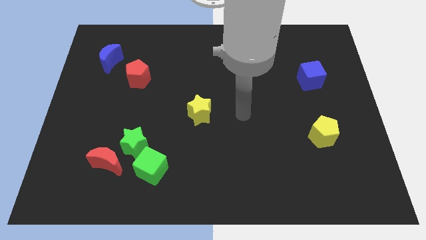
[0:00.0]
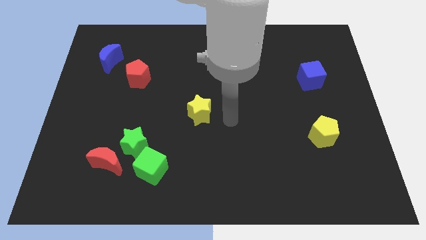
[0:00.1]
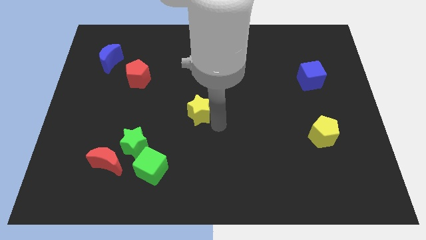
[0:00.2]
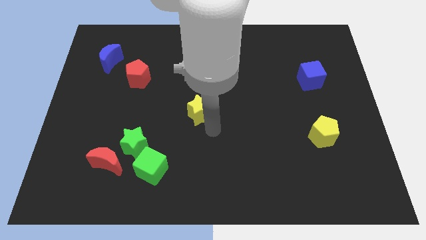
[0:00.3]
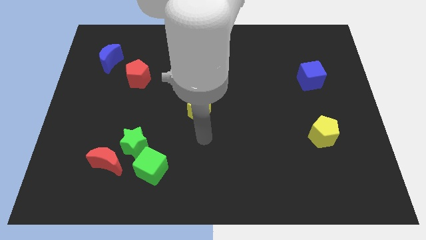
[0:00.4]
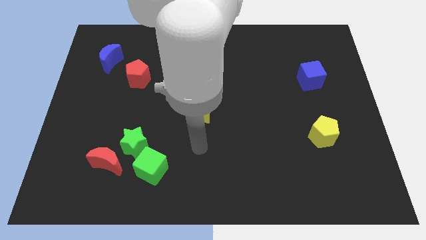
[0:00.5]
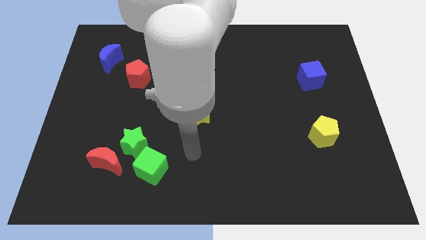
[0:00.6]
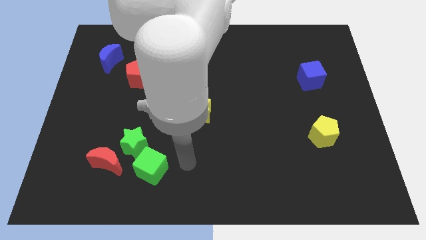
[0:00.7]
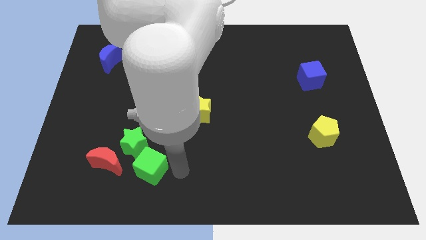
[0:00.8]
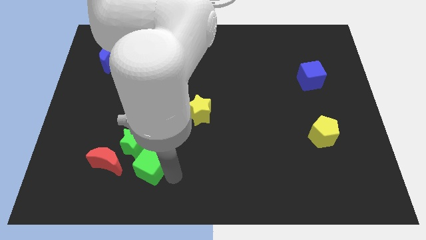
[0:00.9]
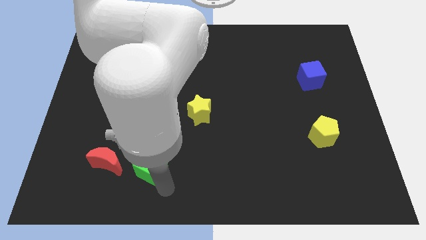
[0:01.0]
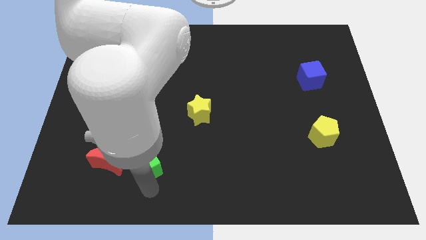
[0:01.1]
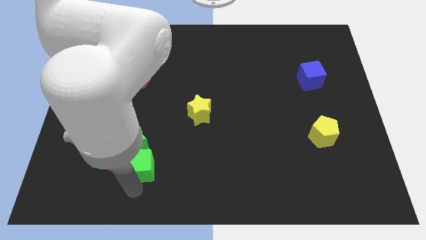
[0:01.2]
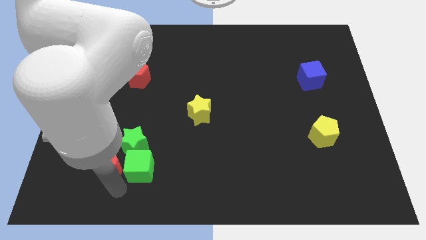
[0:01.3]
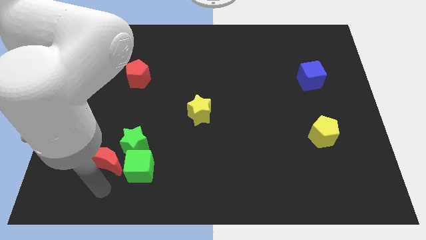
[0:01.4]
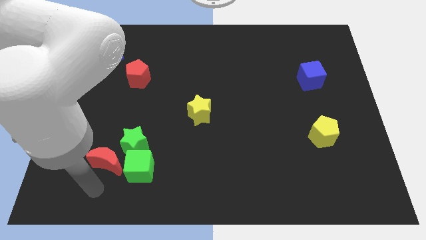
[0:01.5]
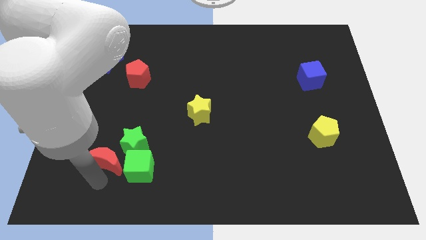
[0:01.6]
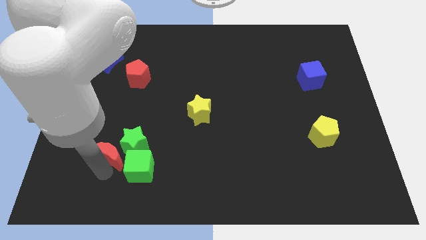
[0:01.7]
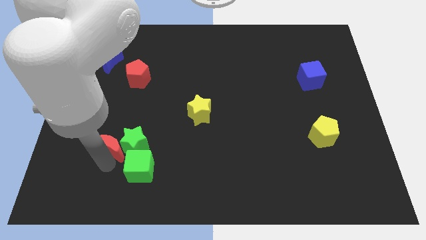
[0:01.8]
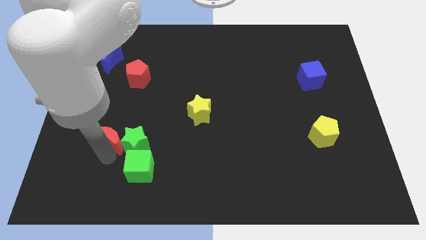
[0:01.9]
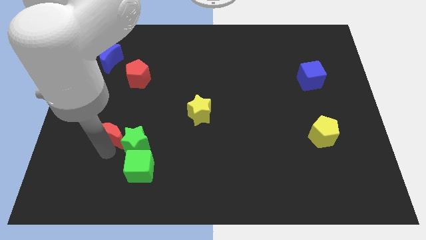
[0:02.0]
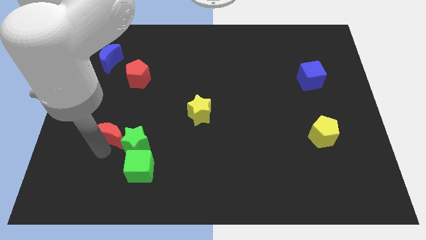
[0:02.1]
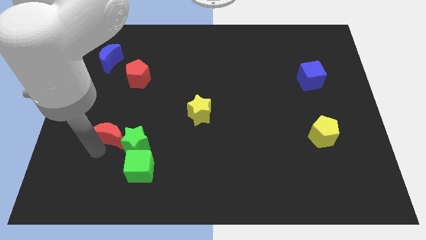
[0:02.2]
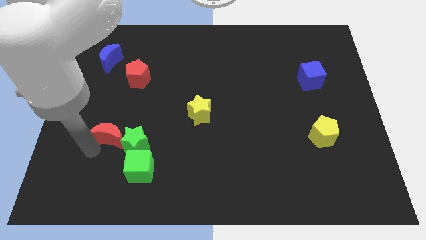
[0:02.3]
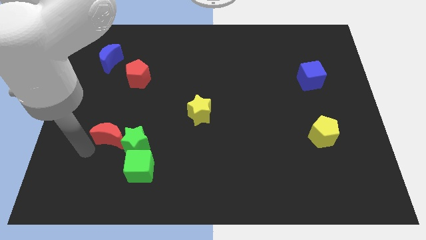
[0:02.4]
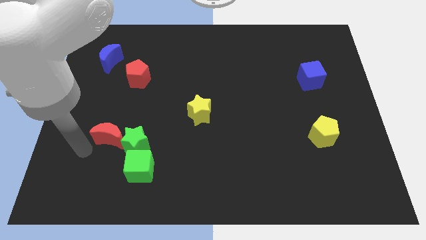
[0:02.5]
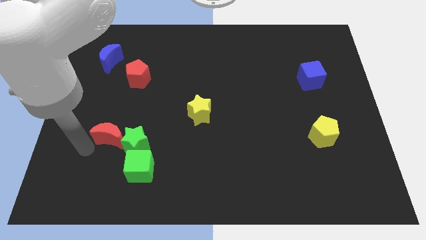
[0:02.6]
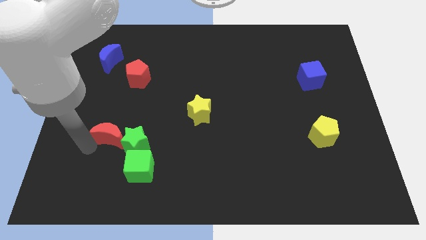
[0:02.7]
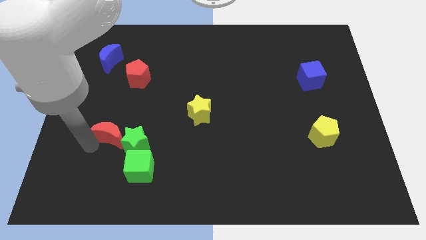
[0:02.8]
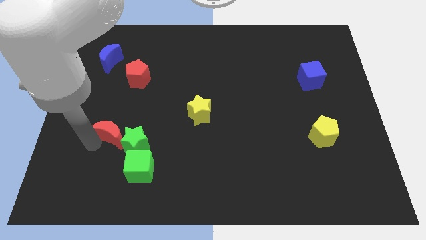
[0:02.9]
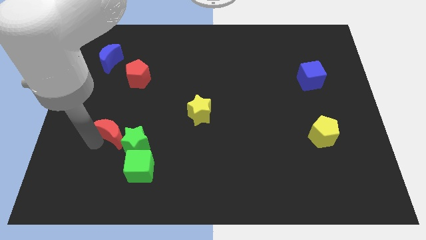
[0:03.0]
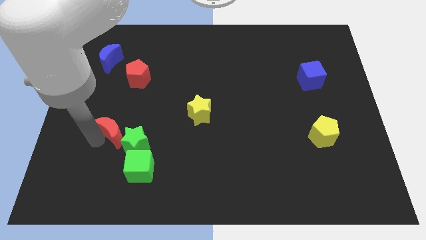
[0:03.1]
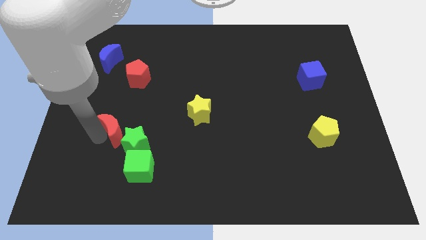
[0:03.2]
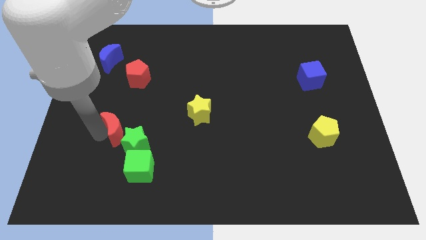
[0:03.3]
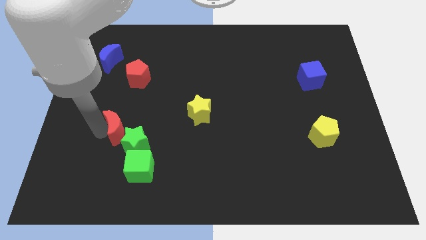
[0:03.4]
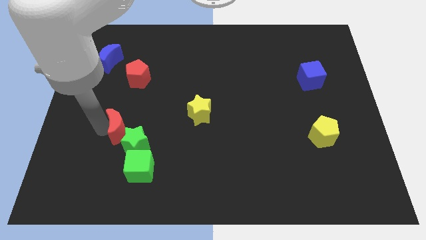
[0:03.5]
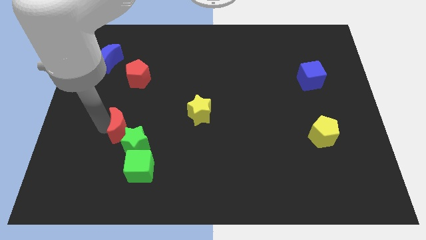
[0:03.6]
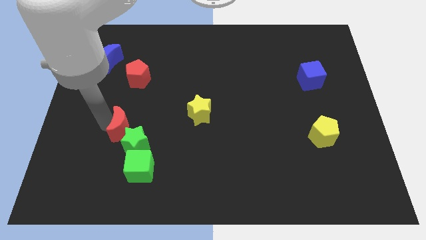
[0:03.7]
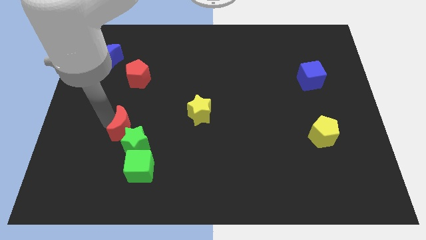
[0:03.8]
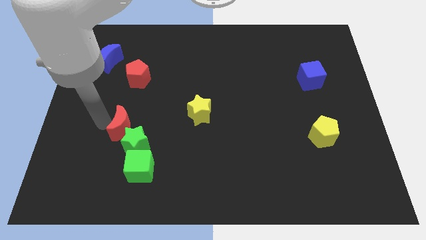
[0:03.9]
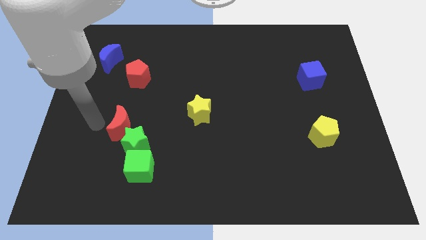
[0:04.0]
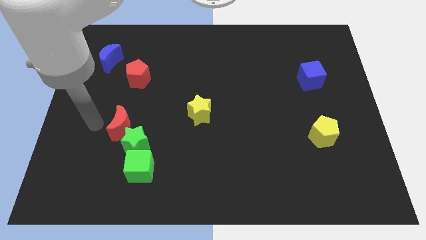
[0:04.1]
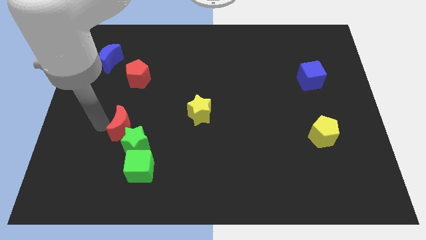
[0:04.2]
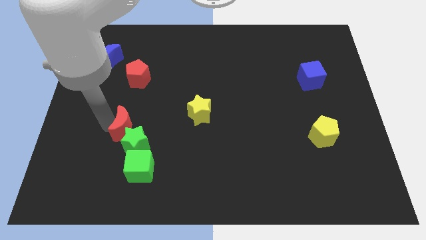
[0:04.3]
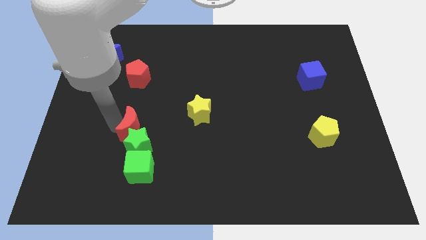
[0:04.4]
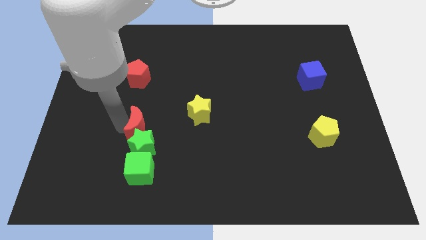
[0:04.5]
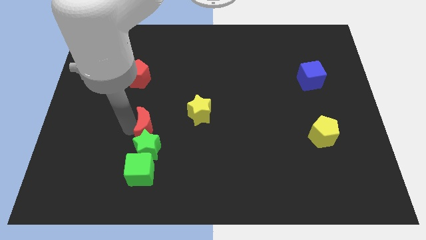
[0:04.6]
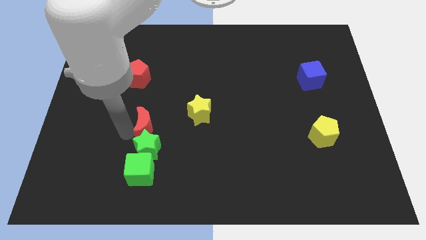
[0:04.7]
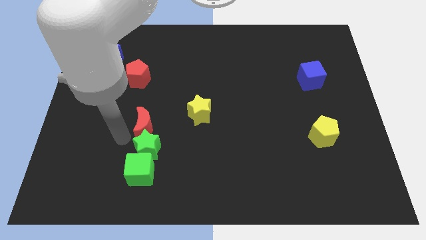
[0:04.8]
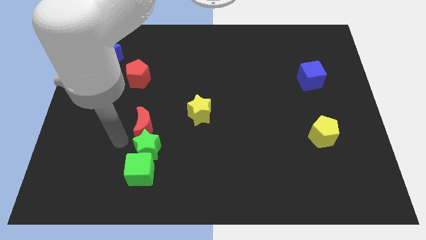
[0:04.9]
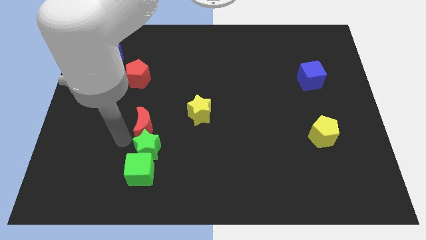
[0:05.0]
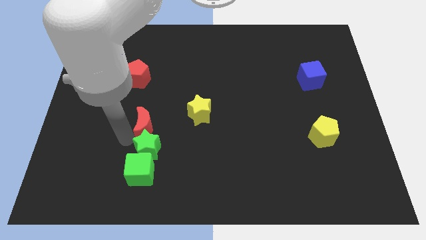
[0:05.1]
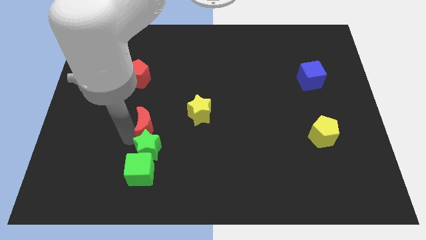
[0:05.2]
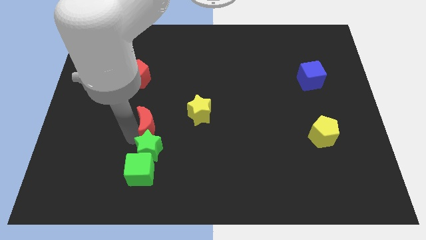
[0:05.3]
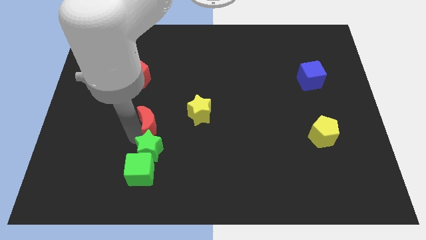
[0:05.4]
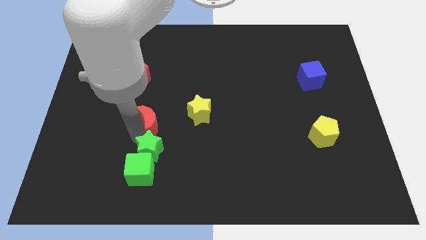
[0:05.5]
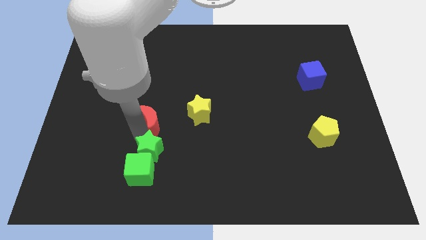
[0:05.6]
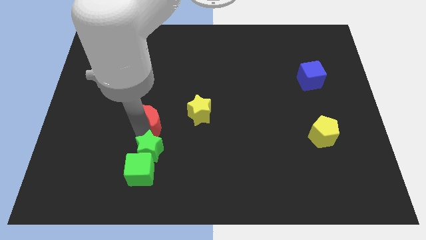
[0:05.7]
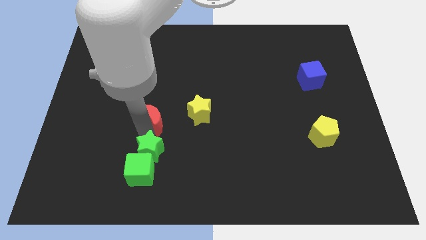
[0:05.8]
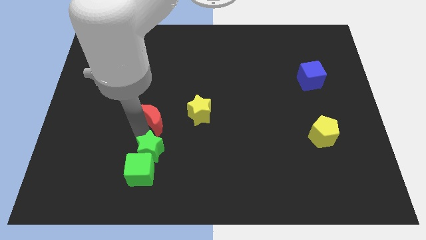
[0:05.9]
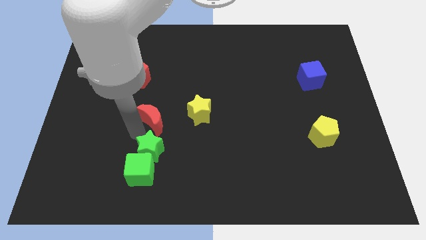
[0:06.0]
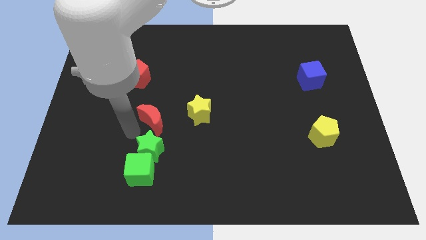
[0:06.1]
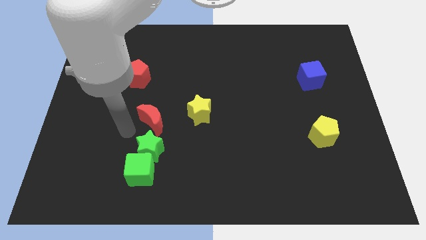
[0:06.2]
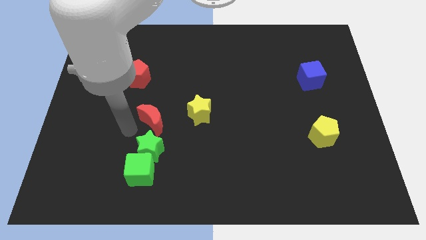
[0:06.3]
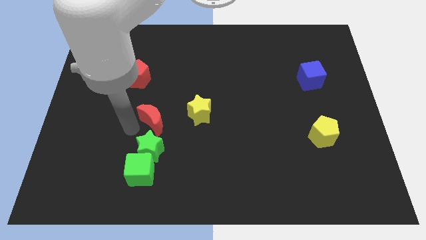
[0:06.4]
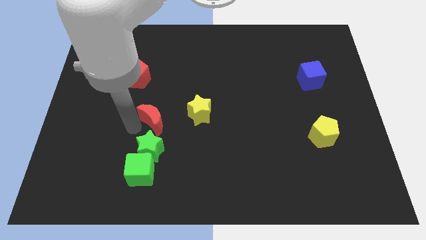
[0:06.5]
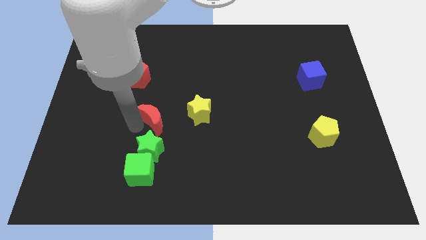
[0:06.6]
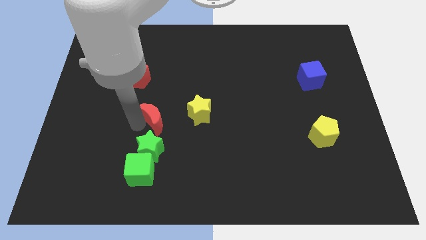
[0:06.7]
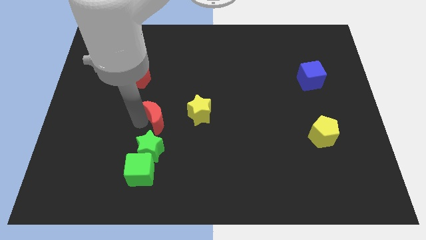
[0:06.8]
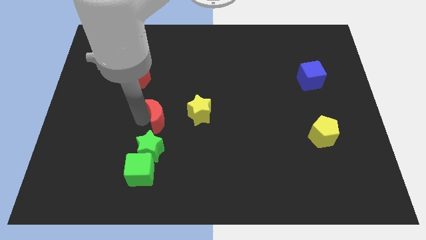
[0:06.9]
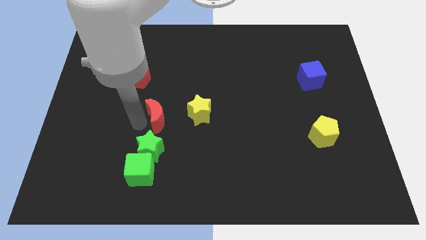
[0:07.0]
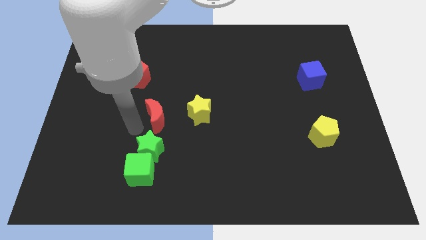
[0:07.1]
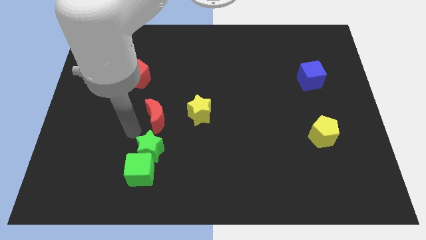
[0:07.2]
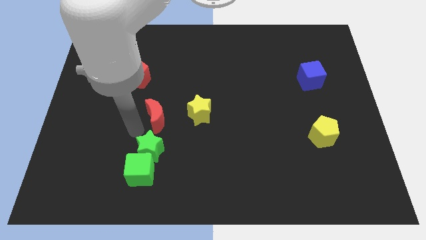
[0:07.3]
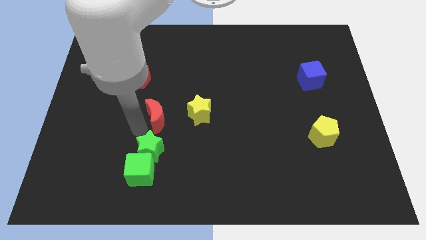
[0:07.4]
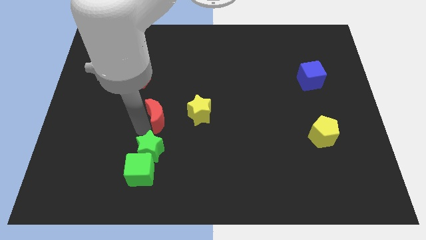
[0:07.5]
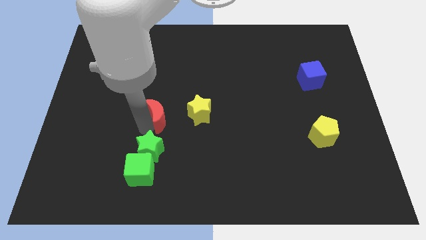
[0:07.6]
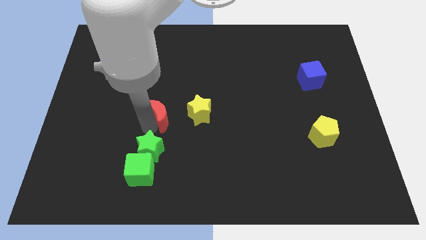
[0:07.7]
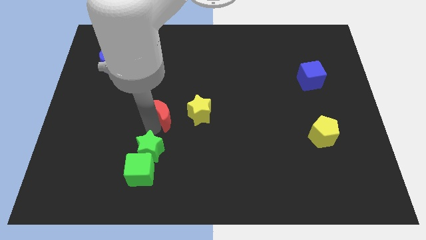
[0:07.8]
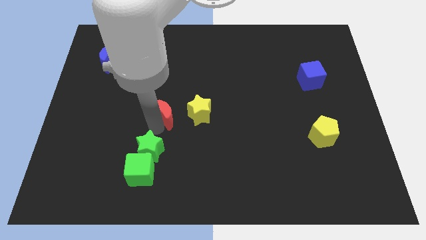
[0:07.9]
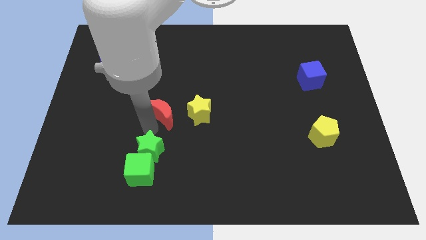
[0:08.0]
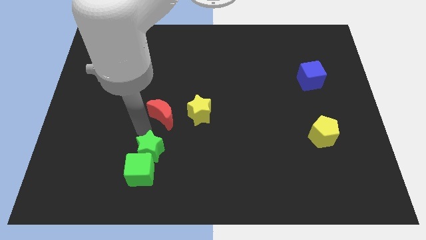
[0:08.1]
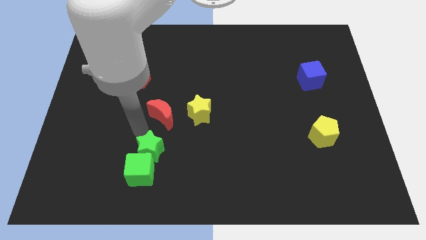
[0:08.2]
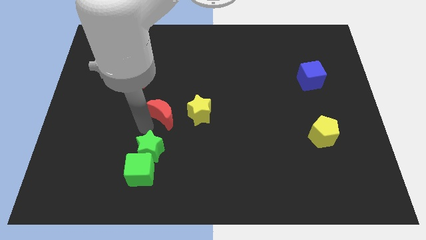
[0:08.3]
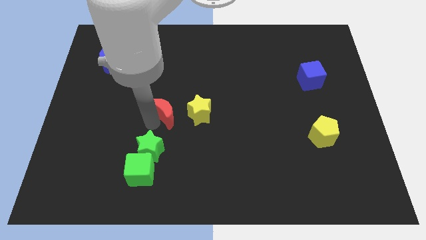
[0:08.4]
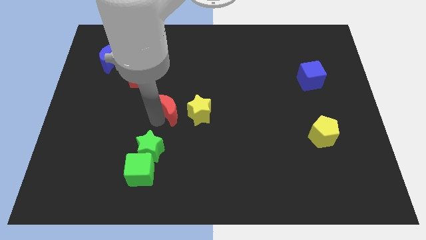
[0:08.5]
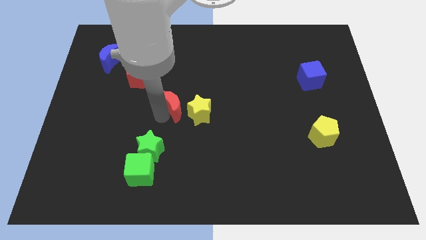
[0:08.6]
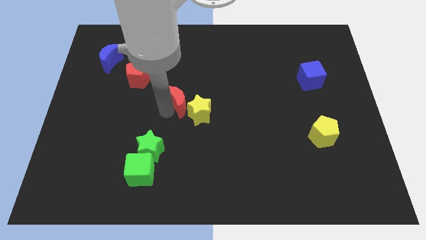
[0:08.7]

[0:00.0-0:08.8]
slide the red moon up and right
